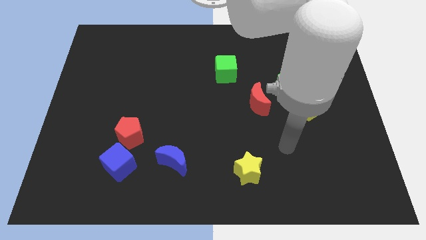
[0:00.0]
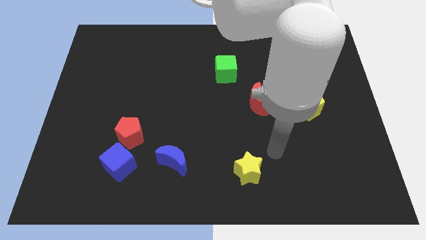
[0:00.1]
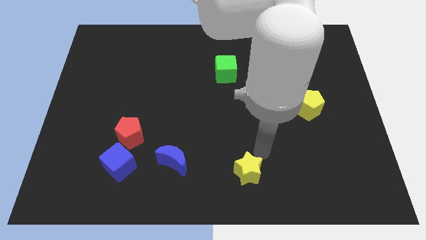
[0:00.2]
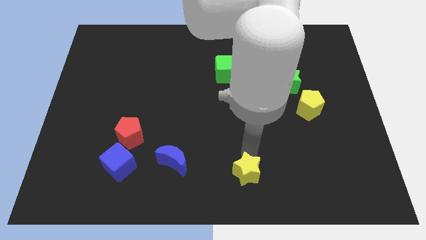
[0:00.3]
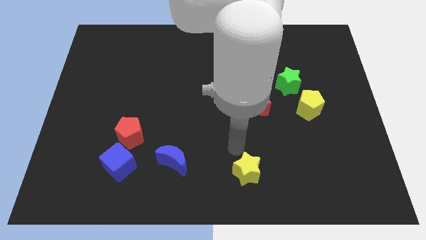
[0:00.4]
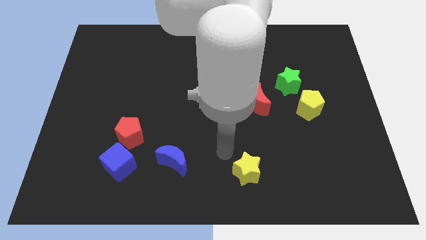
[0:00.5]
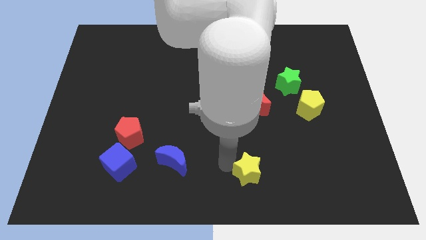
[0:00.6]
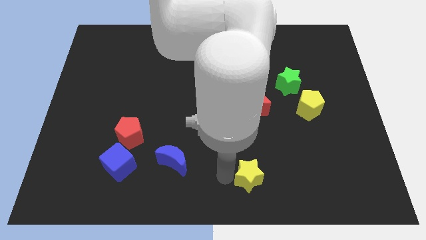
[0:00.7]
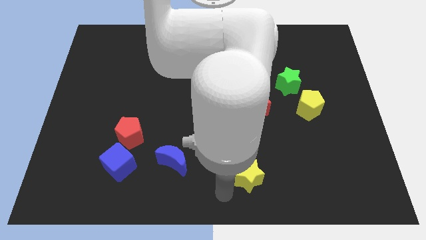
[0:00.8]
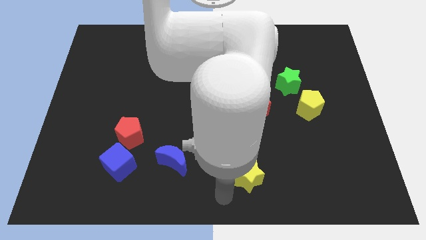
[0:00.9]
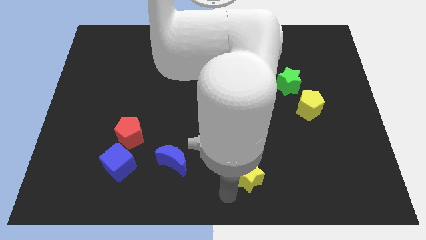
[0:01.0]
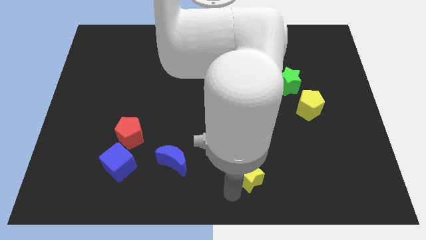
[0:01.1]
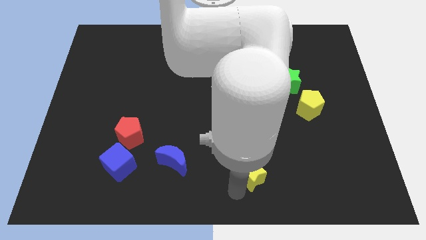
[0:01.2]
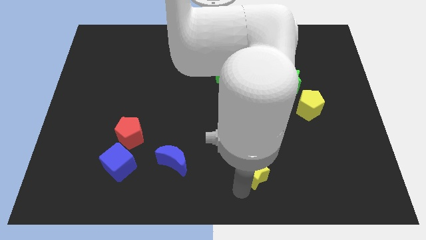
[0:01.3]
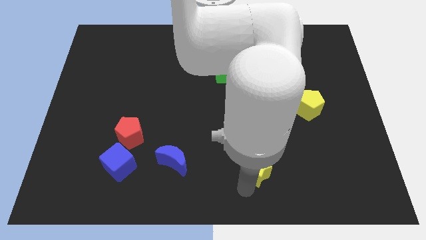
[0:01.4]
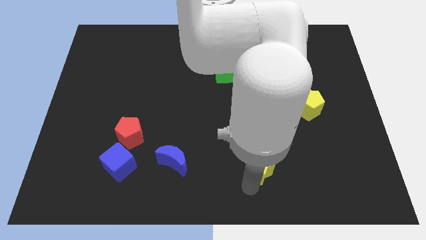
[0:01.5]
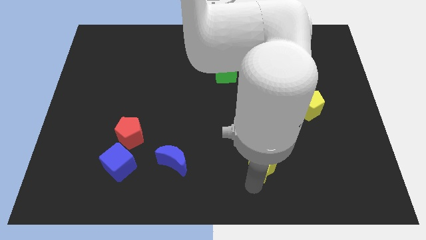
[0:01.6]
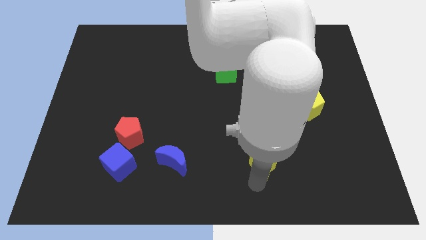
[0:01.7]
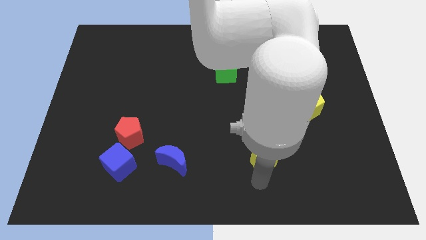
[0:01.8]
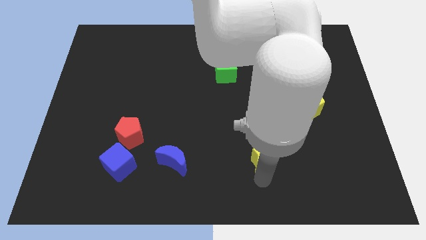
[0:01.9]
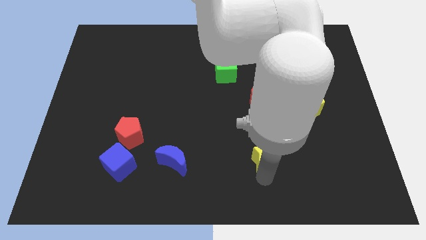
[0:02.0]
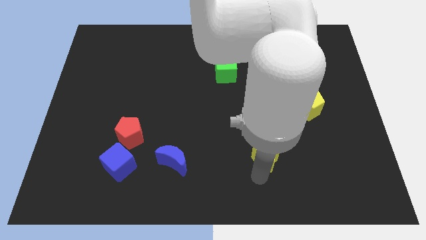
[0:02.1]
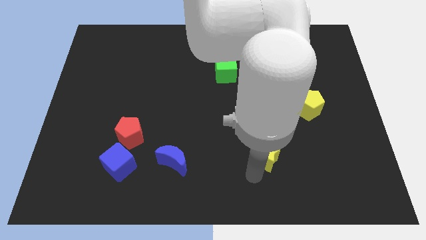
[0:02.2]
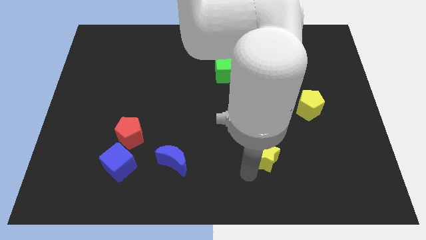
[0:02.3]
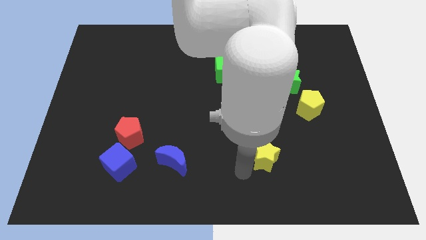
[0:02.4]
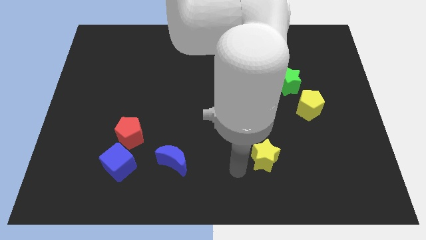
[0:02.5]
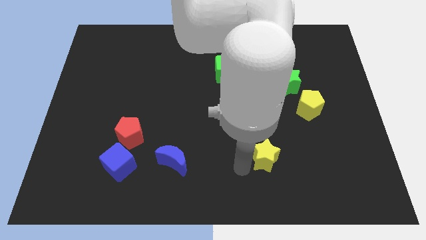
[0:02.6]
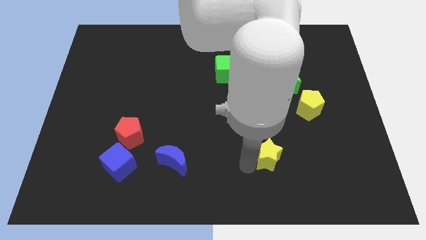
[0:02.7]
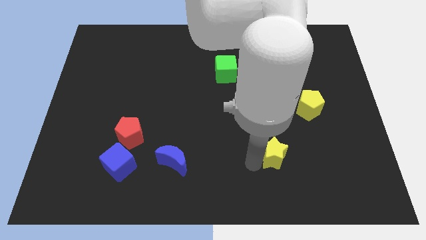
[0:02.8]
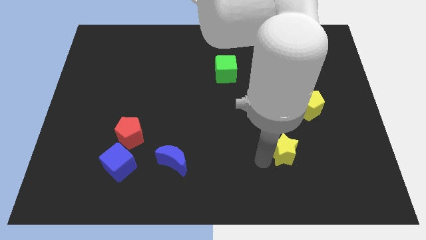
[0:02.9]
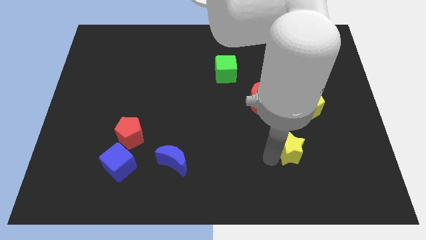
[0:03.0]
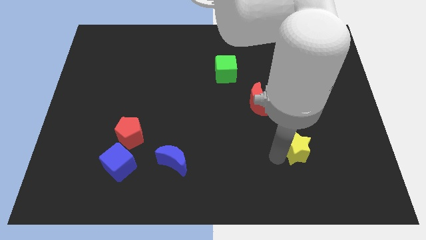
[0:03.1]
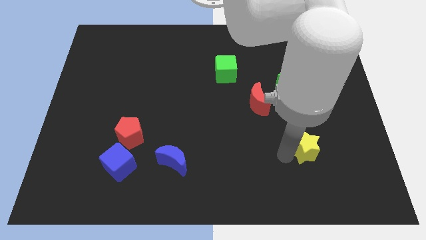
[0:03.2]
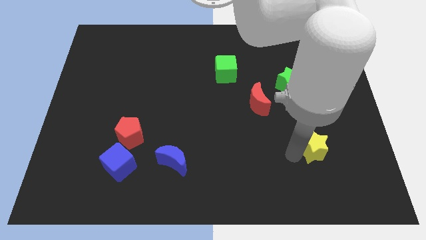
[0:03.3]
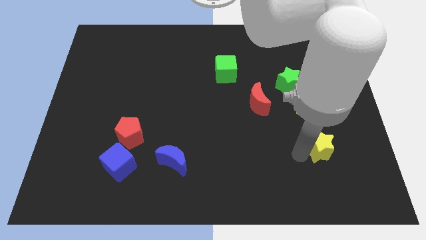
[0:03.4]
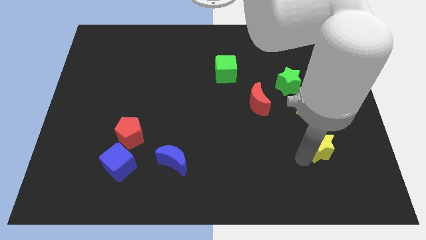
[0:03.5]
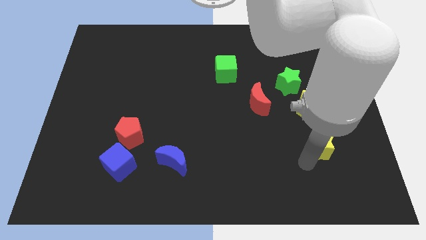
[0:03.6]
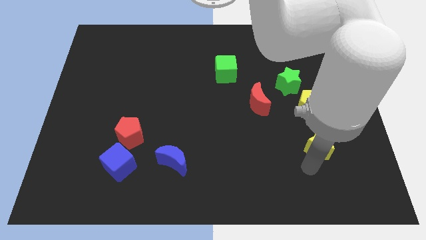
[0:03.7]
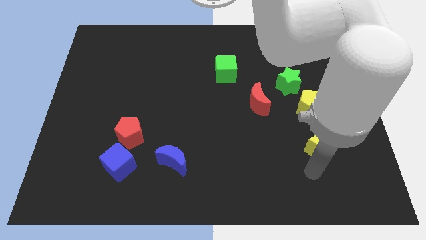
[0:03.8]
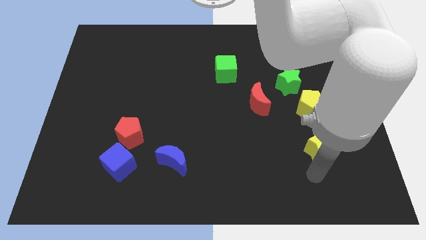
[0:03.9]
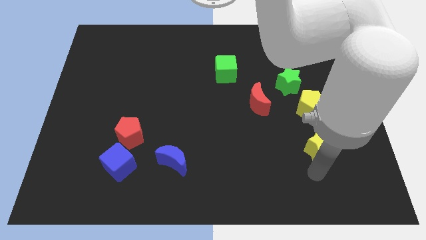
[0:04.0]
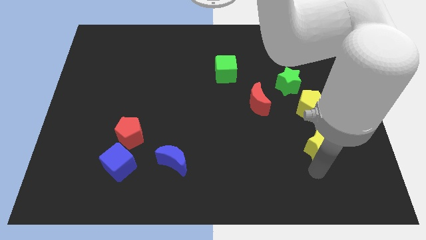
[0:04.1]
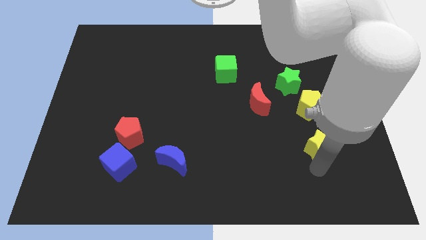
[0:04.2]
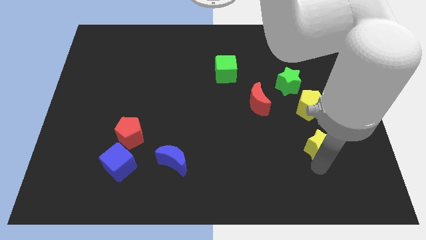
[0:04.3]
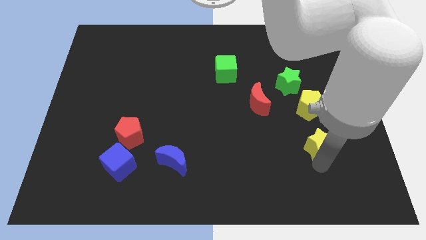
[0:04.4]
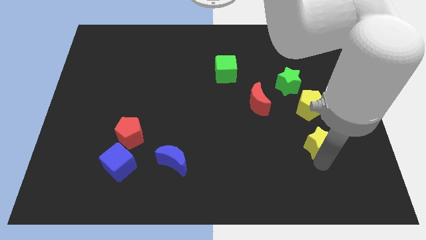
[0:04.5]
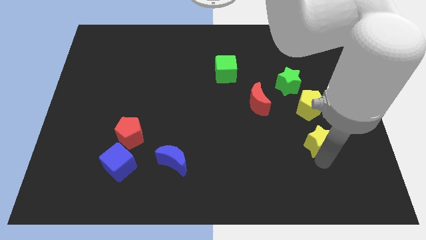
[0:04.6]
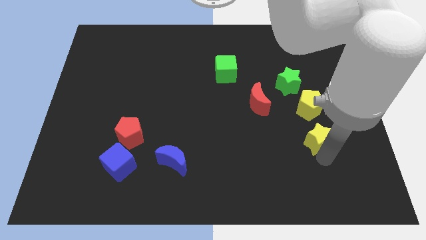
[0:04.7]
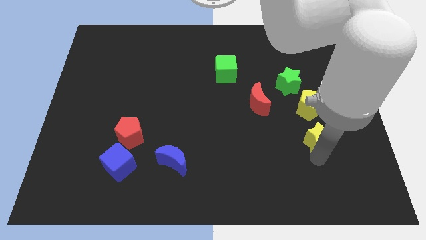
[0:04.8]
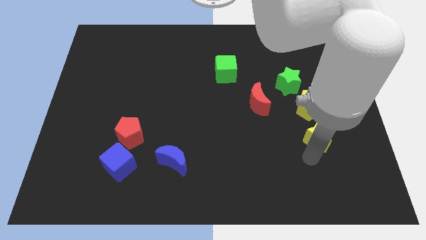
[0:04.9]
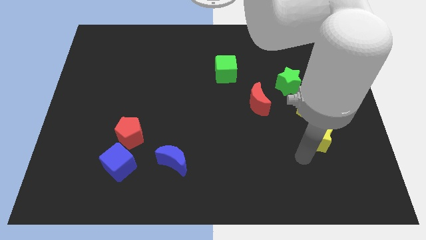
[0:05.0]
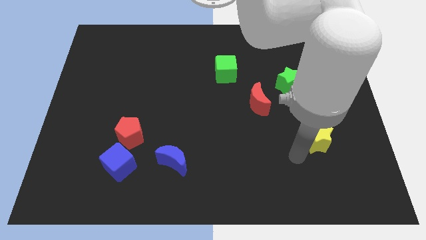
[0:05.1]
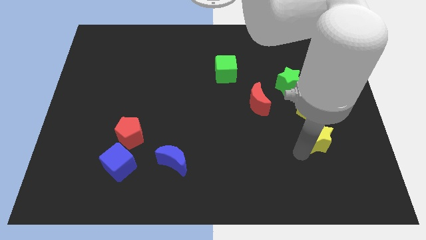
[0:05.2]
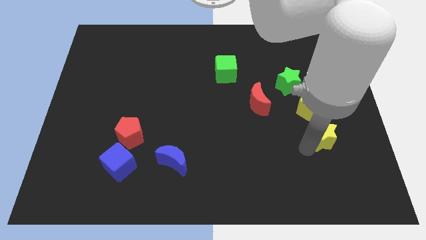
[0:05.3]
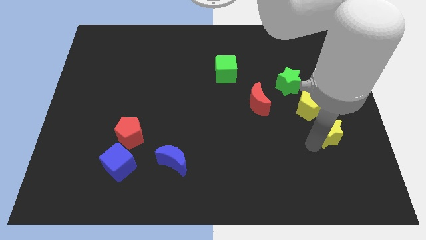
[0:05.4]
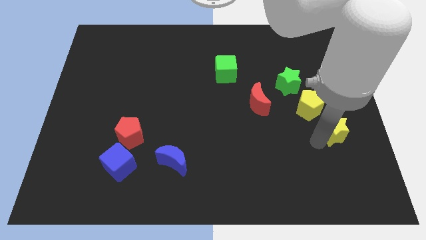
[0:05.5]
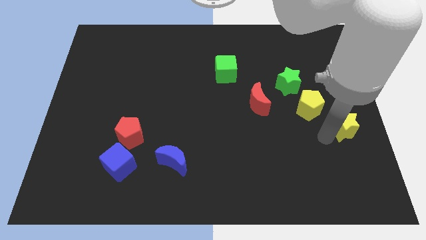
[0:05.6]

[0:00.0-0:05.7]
move the yellow star to the right side of the board

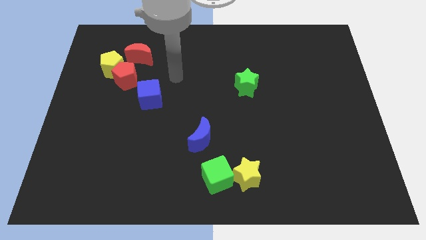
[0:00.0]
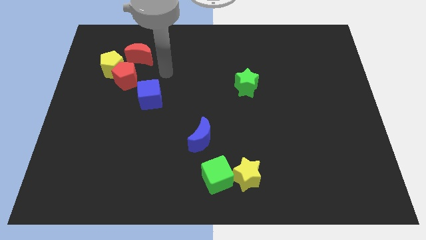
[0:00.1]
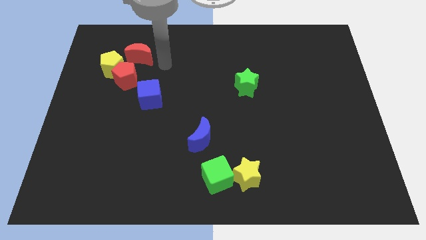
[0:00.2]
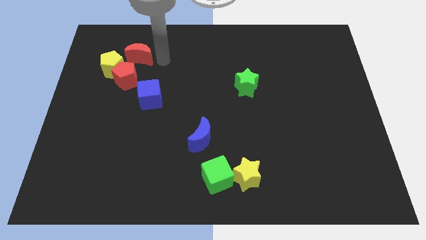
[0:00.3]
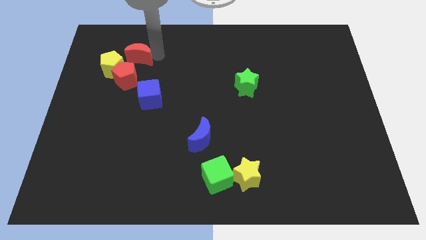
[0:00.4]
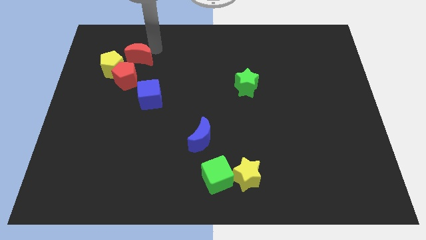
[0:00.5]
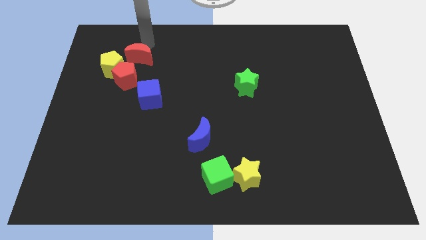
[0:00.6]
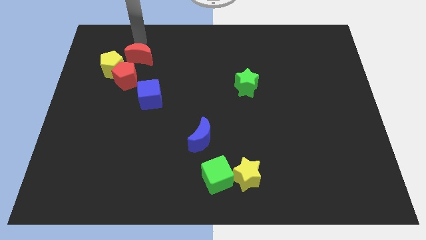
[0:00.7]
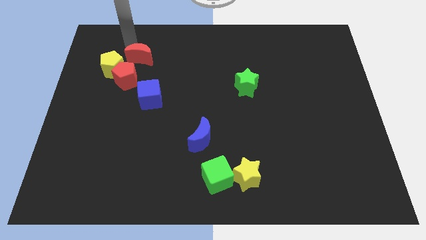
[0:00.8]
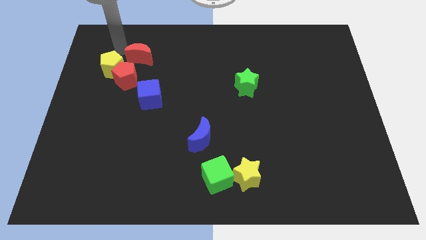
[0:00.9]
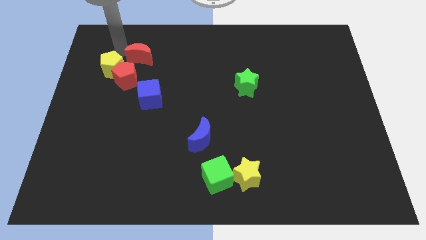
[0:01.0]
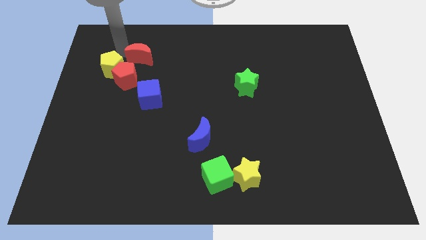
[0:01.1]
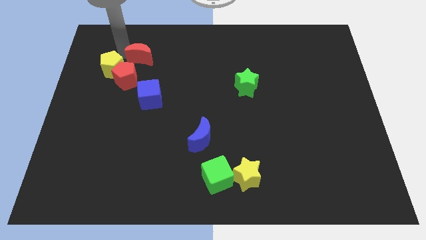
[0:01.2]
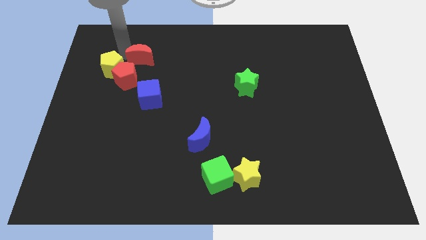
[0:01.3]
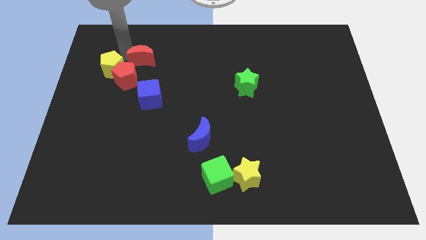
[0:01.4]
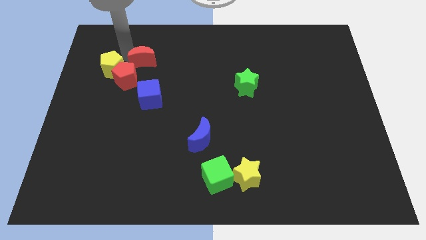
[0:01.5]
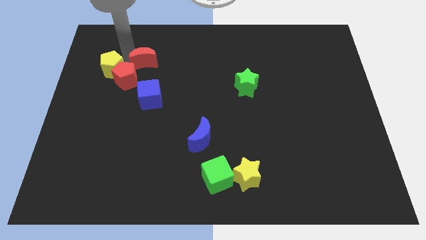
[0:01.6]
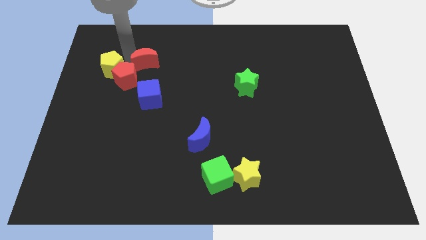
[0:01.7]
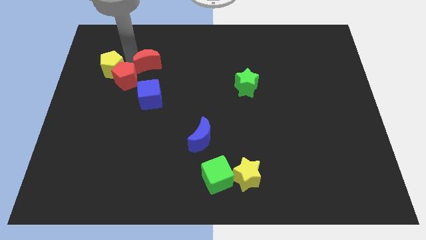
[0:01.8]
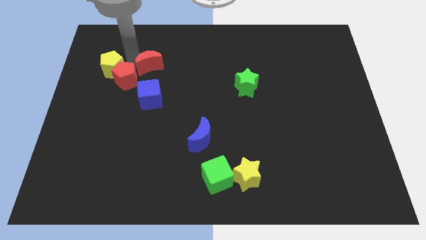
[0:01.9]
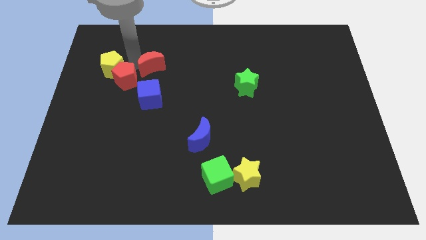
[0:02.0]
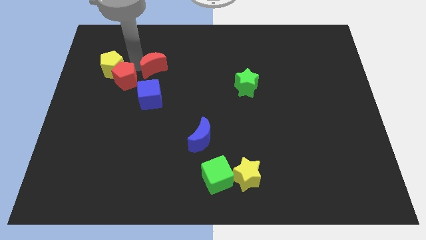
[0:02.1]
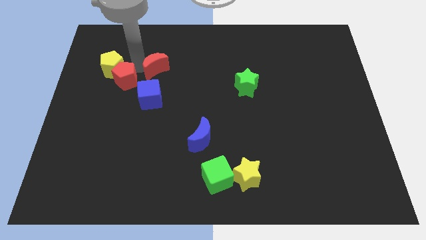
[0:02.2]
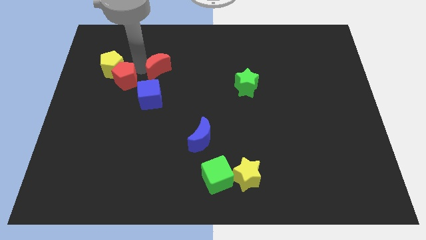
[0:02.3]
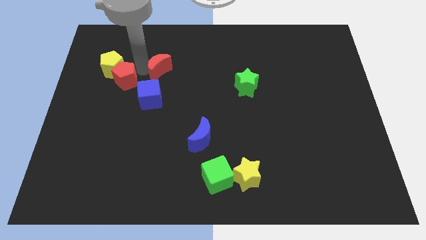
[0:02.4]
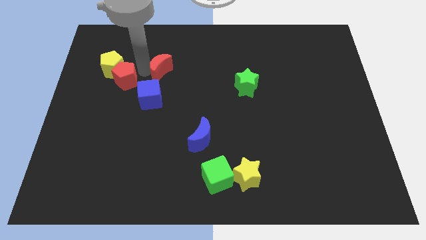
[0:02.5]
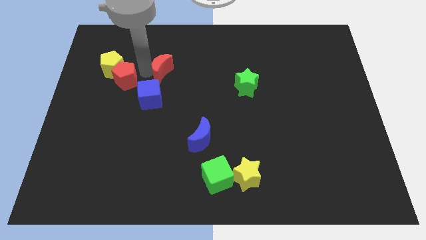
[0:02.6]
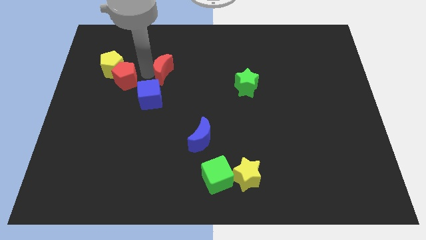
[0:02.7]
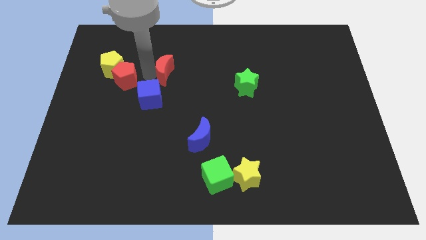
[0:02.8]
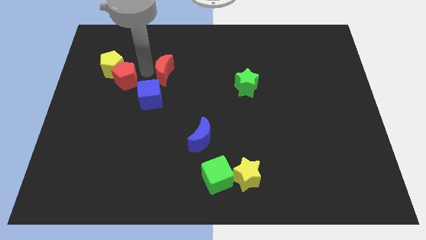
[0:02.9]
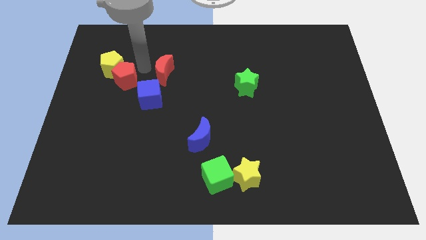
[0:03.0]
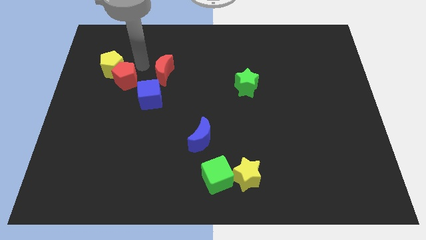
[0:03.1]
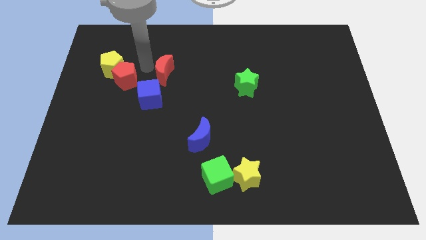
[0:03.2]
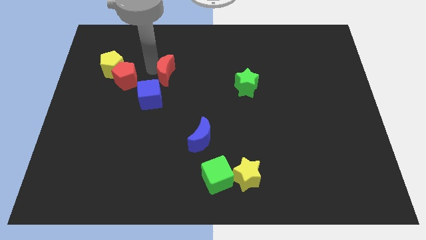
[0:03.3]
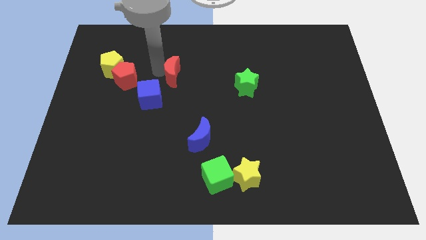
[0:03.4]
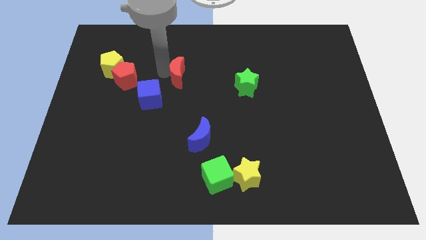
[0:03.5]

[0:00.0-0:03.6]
push the red moon to the center of the board
